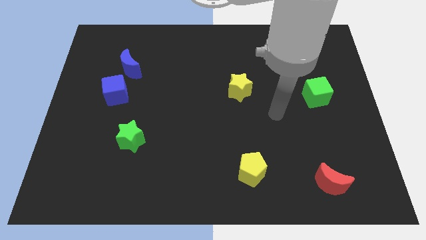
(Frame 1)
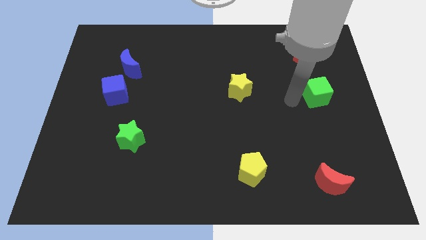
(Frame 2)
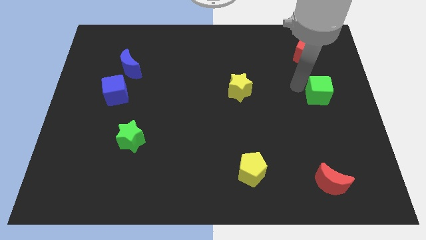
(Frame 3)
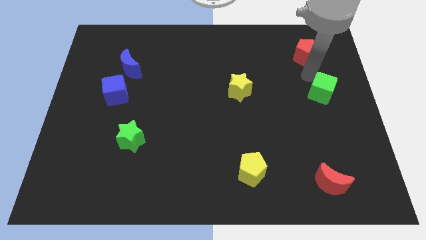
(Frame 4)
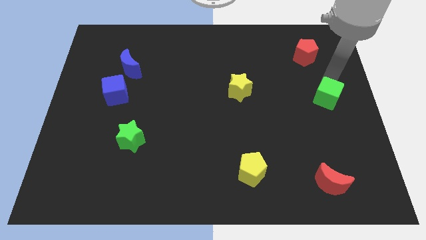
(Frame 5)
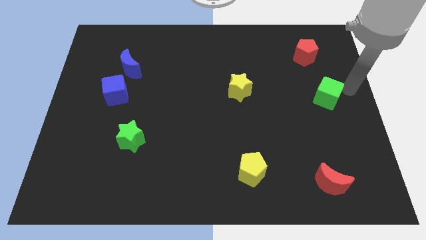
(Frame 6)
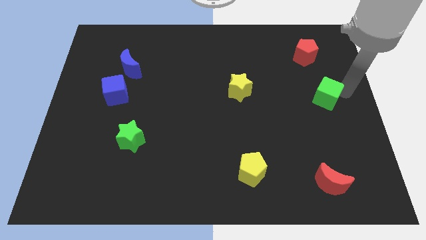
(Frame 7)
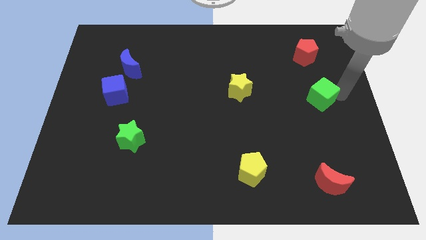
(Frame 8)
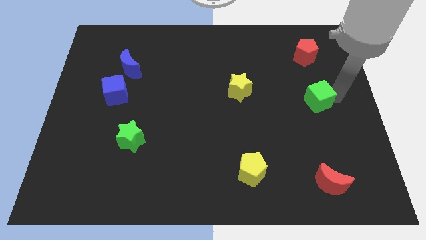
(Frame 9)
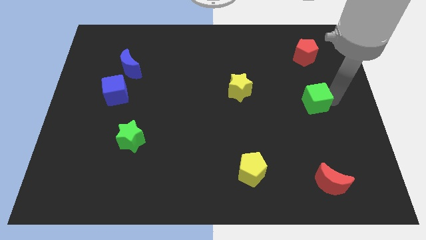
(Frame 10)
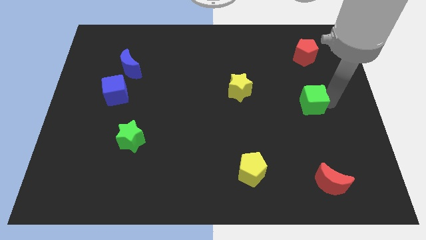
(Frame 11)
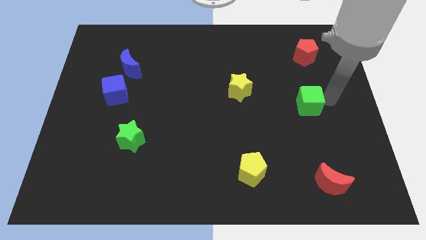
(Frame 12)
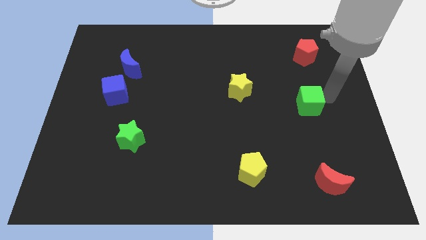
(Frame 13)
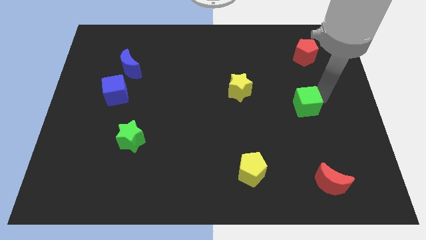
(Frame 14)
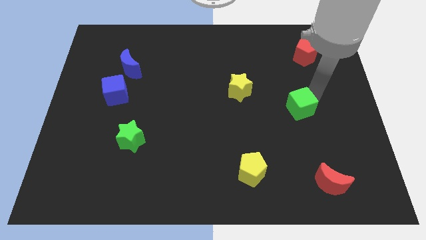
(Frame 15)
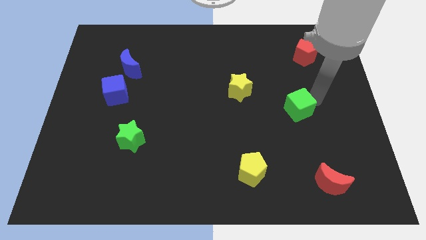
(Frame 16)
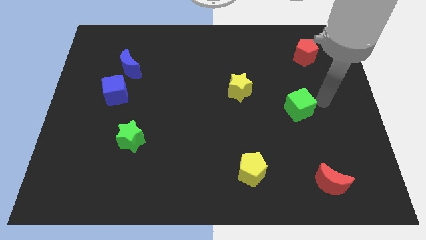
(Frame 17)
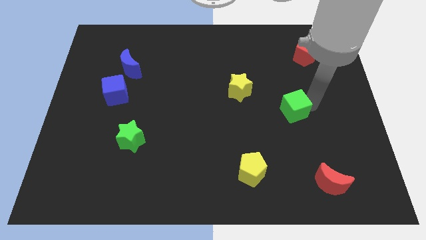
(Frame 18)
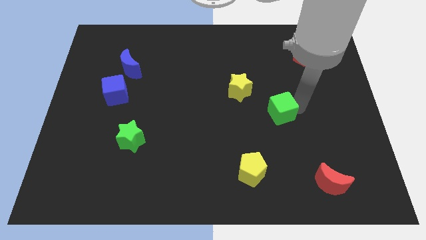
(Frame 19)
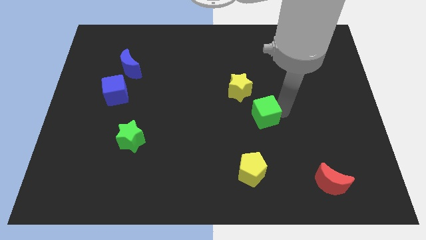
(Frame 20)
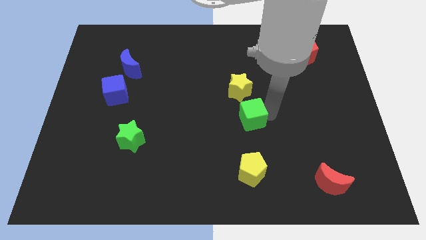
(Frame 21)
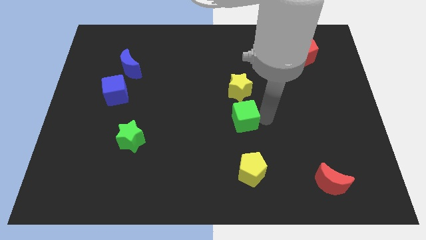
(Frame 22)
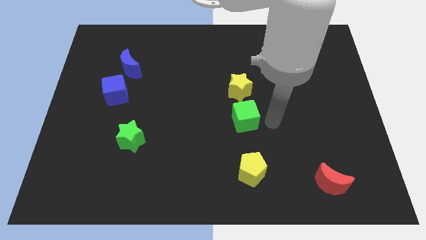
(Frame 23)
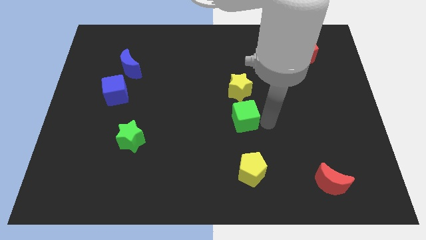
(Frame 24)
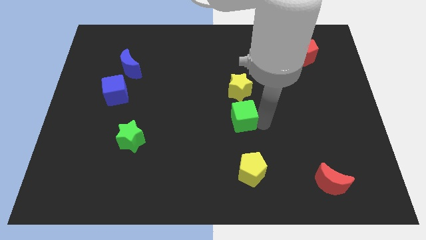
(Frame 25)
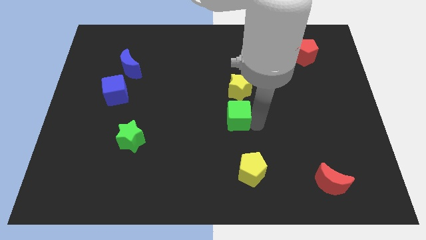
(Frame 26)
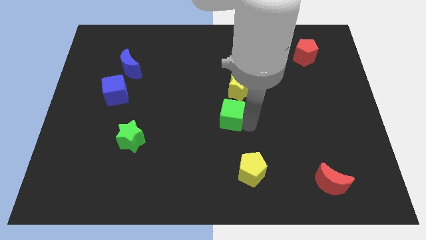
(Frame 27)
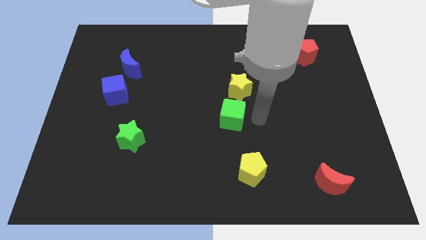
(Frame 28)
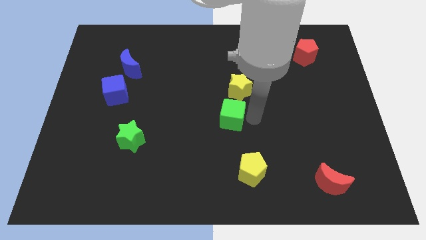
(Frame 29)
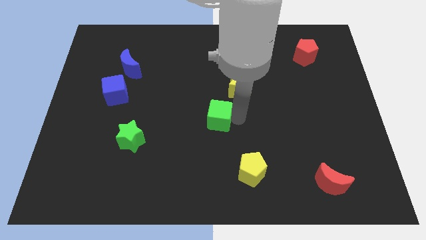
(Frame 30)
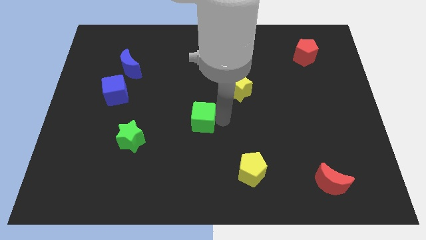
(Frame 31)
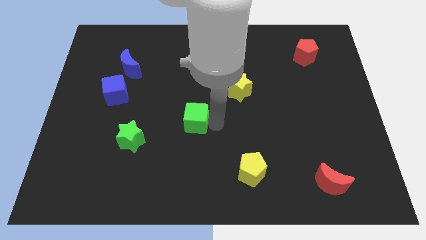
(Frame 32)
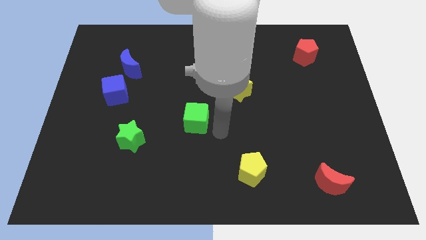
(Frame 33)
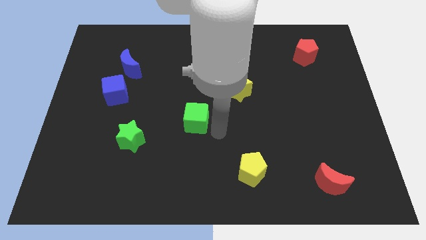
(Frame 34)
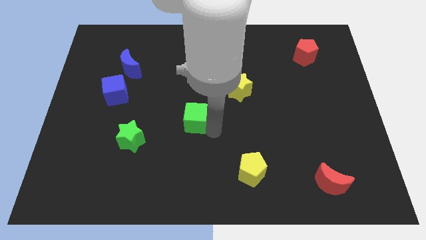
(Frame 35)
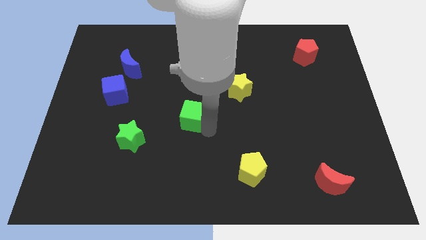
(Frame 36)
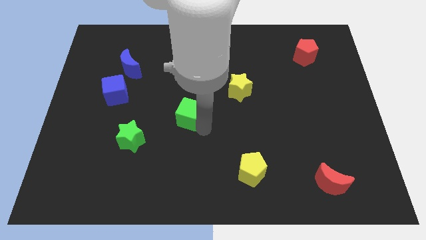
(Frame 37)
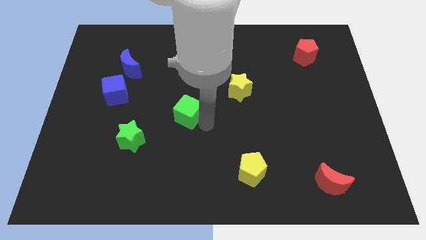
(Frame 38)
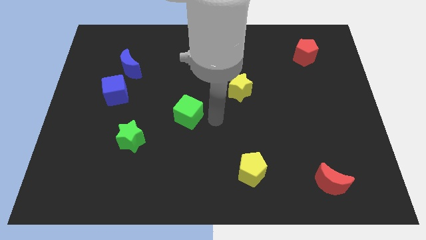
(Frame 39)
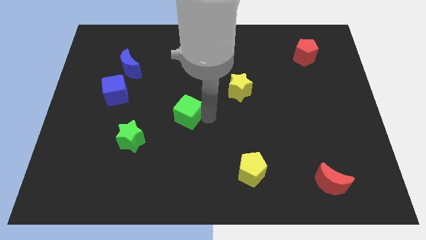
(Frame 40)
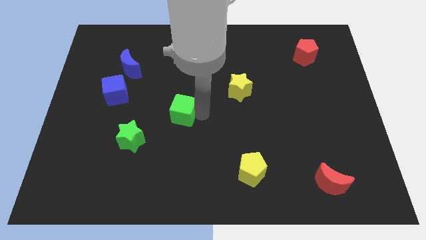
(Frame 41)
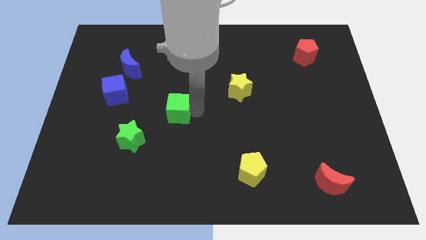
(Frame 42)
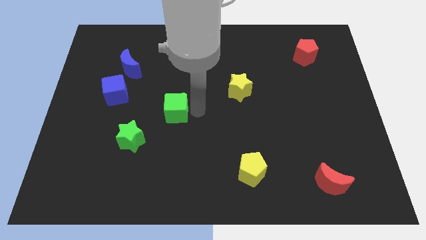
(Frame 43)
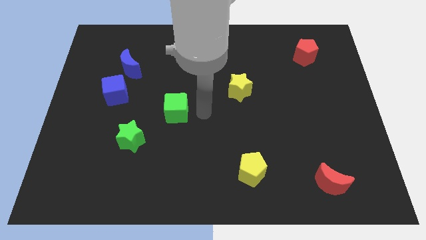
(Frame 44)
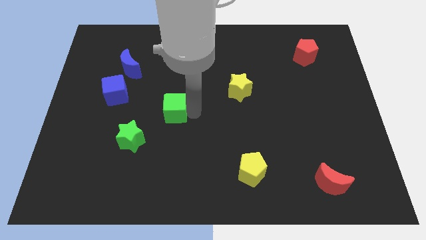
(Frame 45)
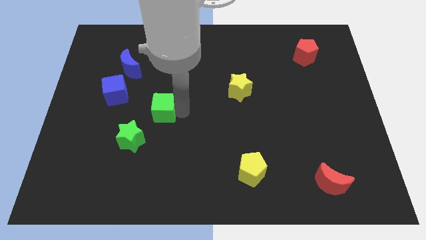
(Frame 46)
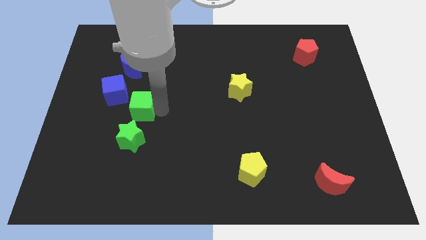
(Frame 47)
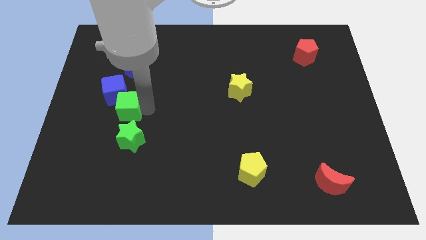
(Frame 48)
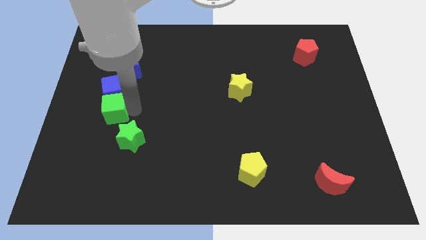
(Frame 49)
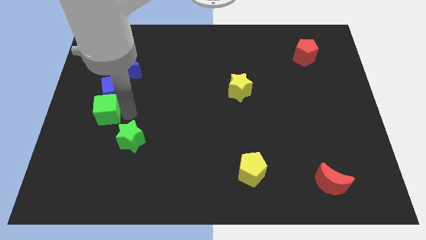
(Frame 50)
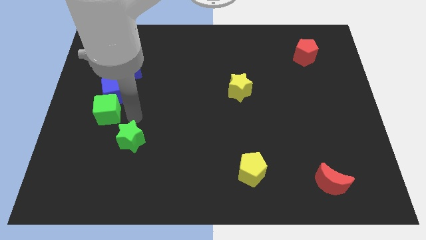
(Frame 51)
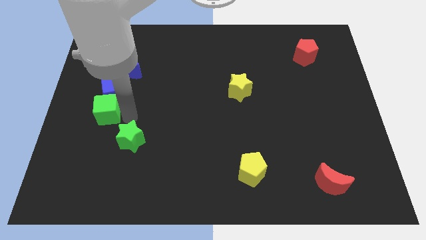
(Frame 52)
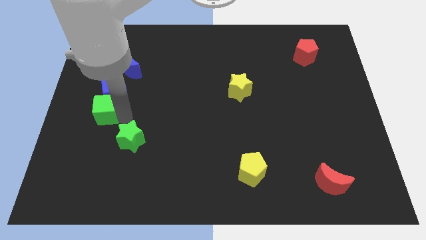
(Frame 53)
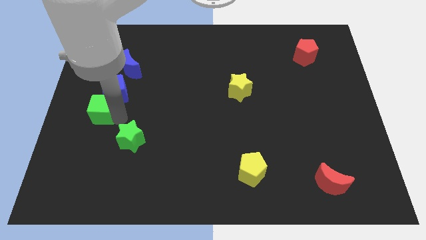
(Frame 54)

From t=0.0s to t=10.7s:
move the green cube to the center left
